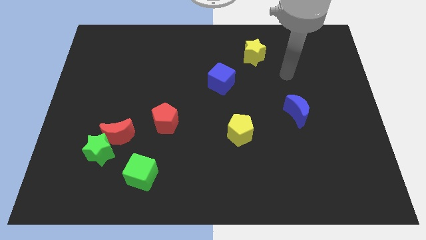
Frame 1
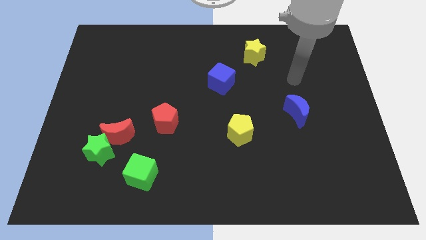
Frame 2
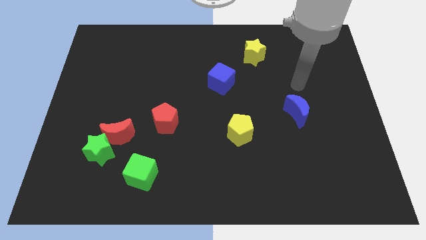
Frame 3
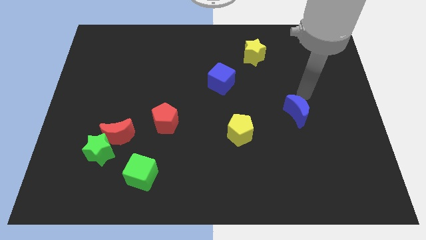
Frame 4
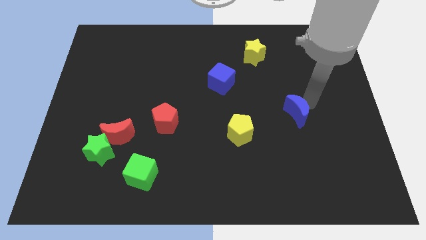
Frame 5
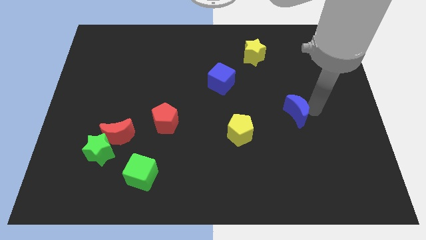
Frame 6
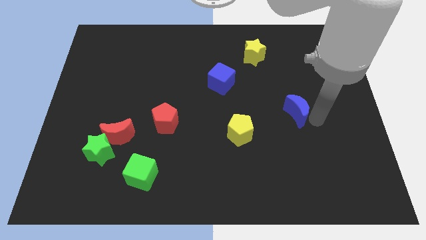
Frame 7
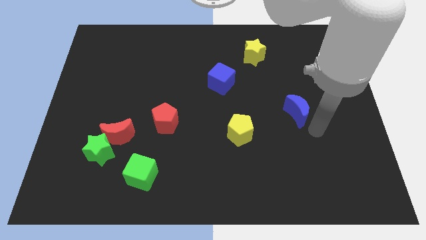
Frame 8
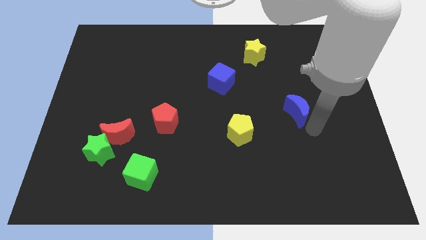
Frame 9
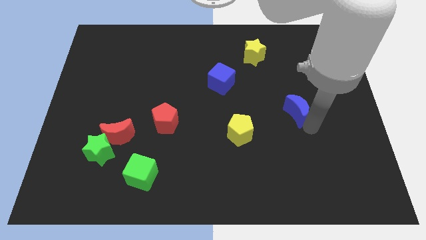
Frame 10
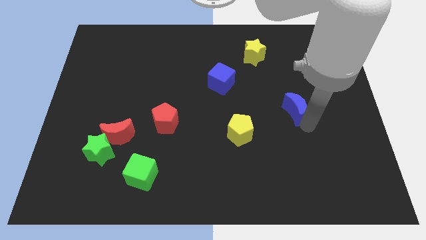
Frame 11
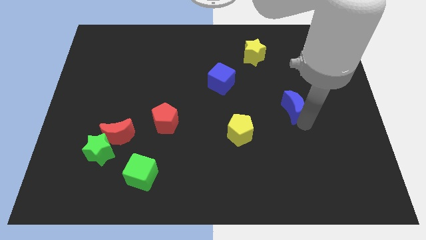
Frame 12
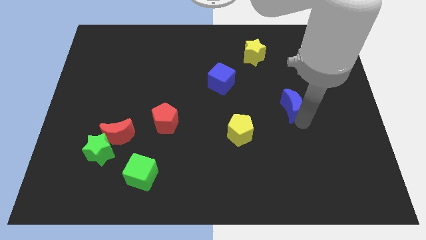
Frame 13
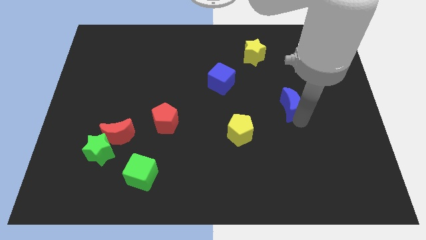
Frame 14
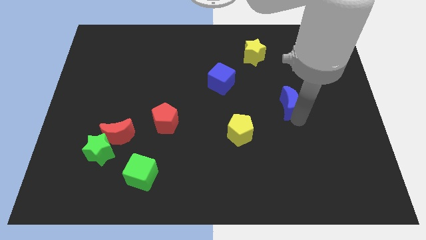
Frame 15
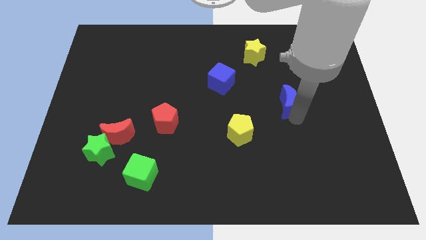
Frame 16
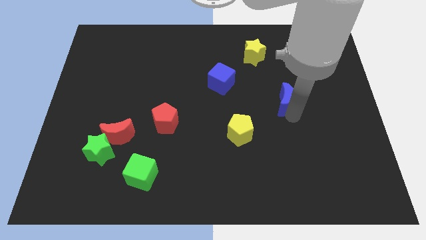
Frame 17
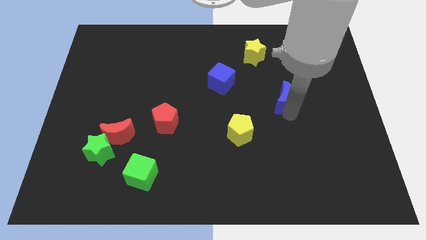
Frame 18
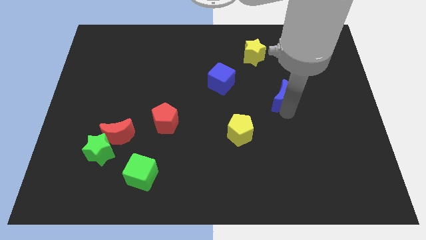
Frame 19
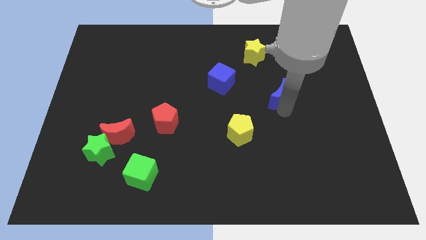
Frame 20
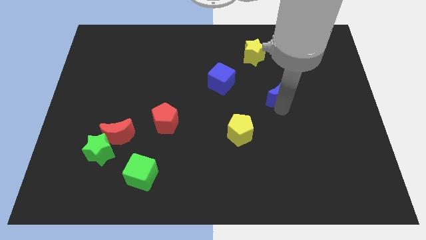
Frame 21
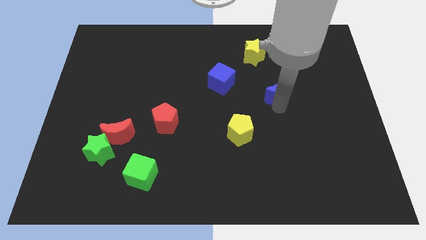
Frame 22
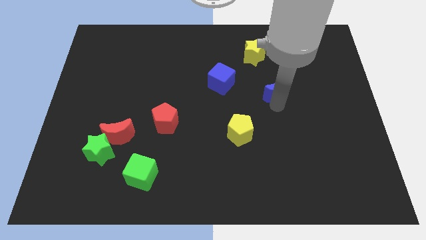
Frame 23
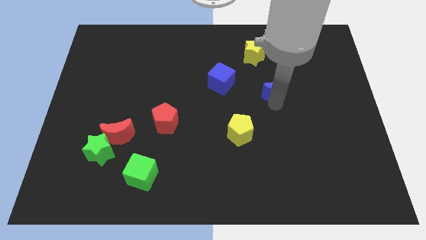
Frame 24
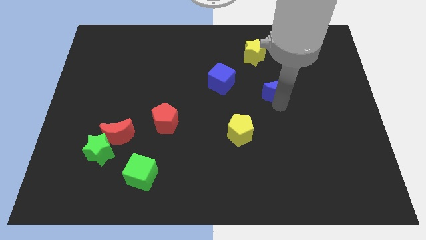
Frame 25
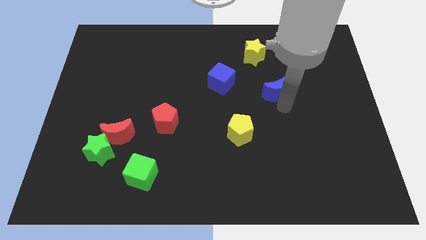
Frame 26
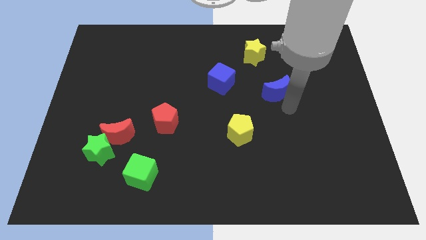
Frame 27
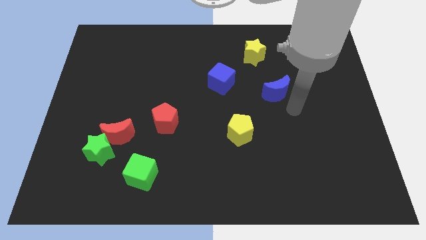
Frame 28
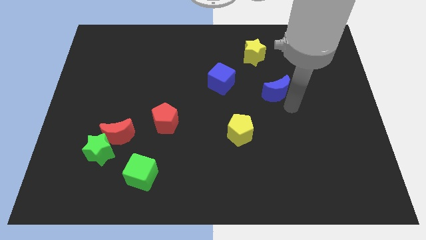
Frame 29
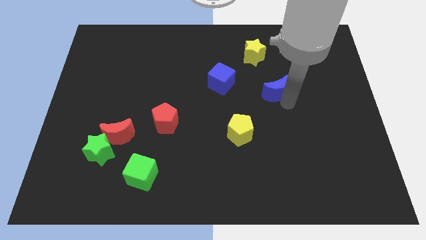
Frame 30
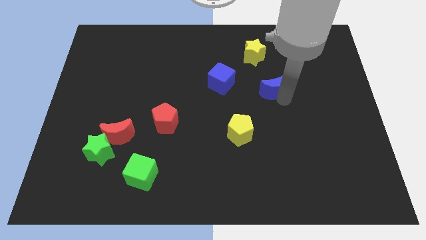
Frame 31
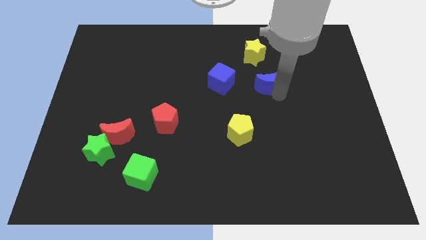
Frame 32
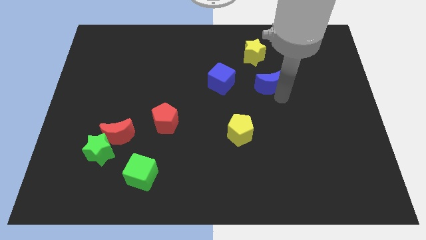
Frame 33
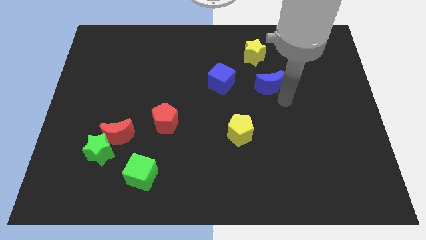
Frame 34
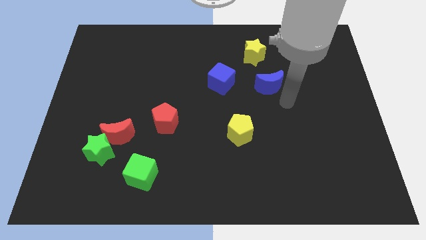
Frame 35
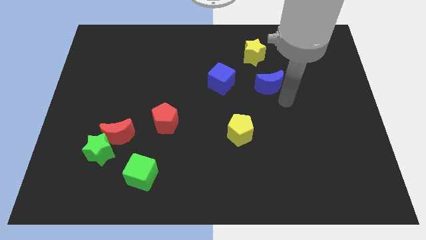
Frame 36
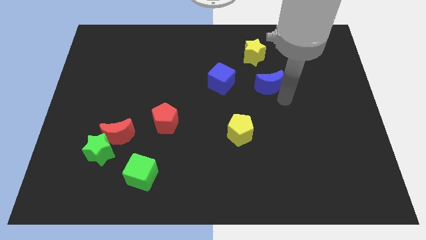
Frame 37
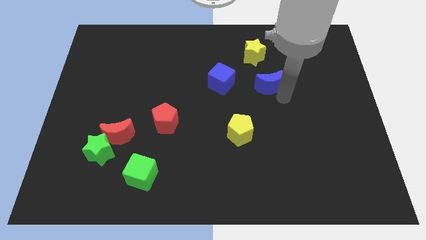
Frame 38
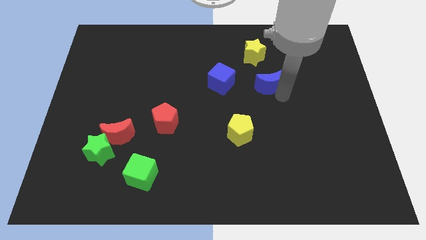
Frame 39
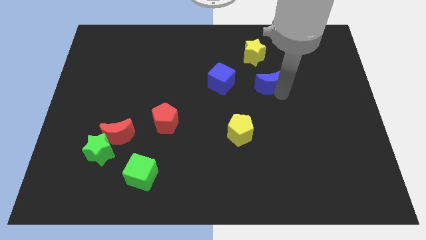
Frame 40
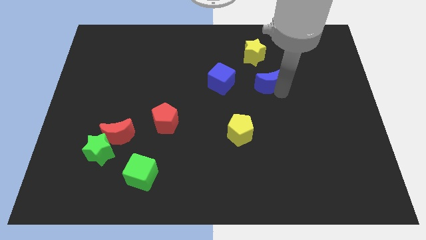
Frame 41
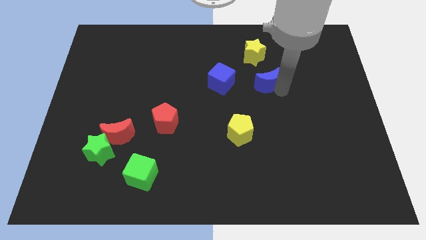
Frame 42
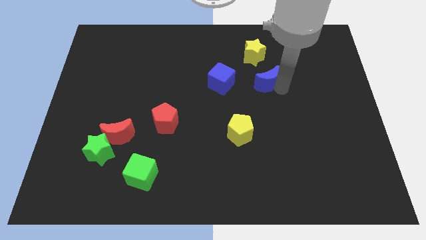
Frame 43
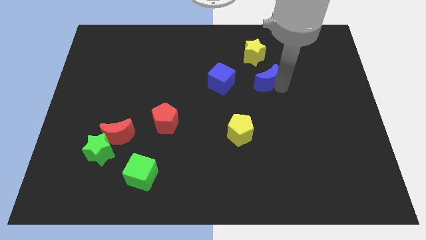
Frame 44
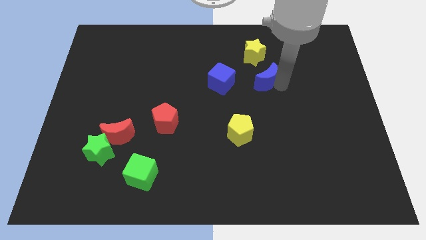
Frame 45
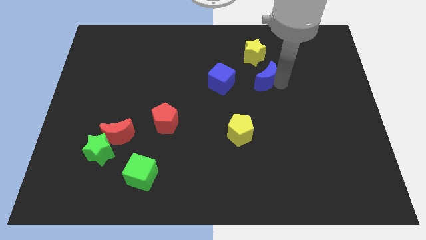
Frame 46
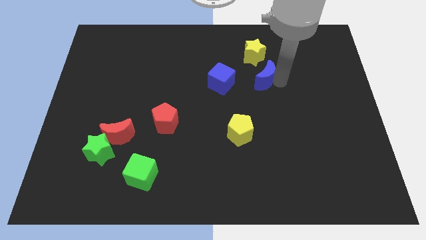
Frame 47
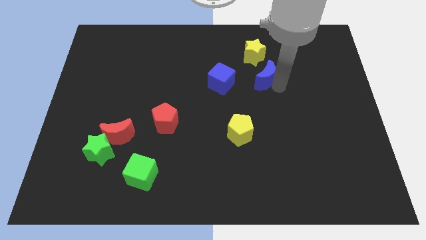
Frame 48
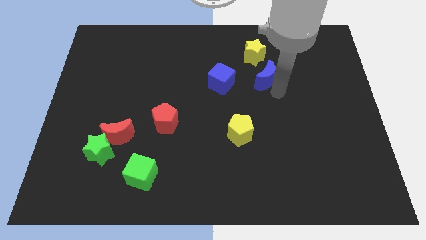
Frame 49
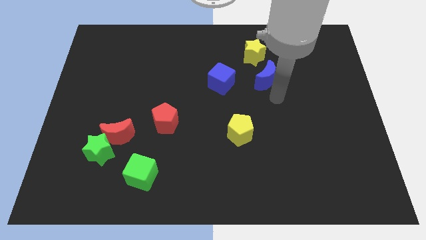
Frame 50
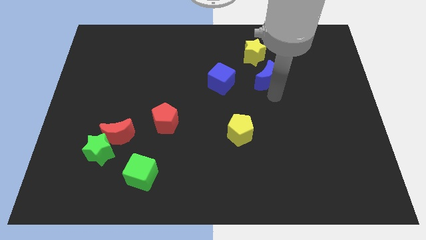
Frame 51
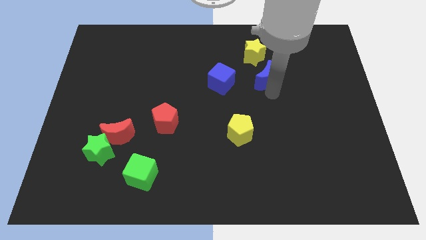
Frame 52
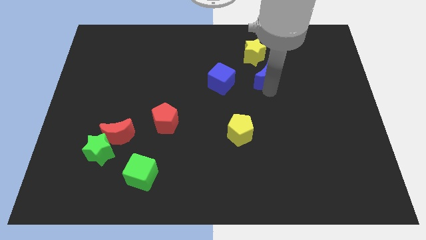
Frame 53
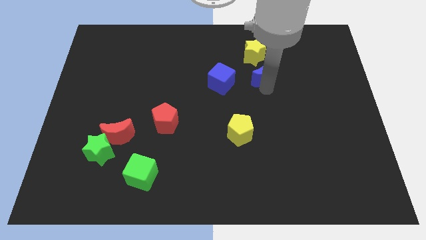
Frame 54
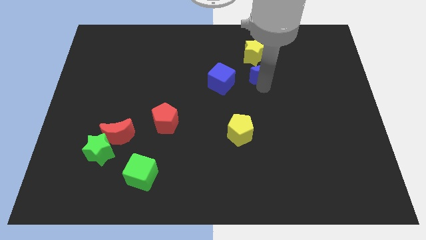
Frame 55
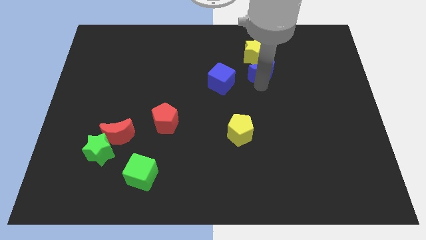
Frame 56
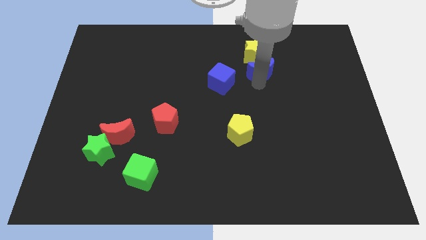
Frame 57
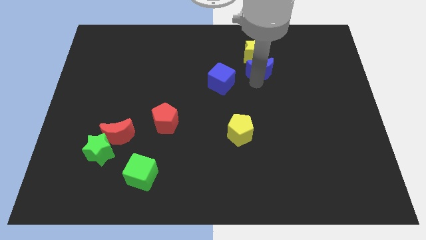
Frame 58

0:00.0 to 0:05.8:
slide the blue moon to the yellow star
